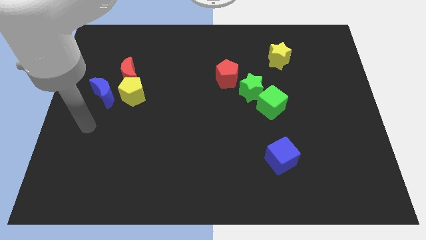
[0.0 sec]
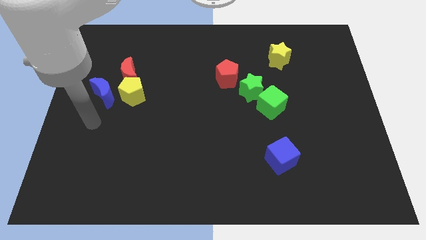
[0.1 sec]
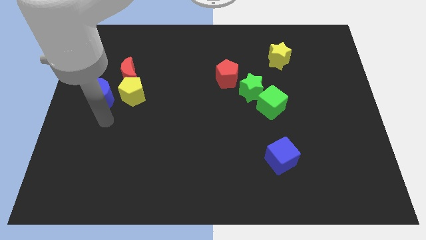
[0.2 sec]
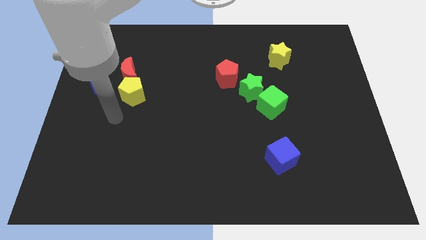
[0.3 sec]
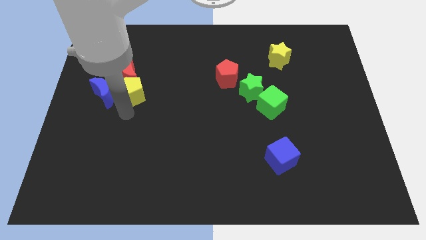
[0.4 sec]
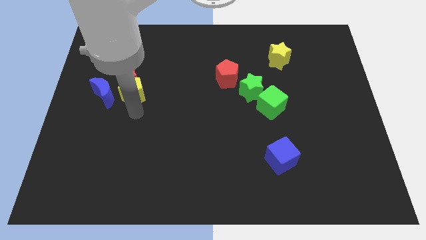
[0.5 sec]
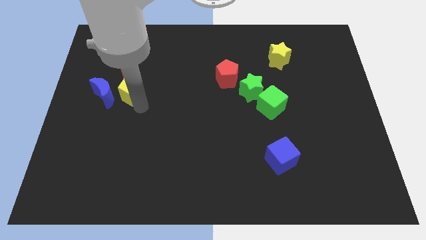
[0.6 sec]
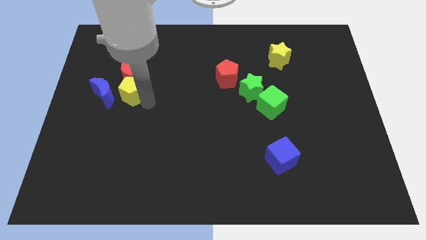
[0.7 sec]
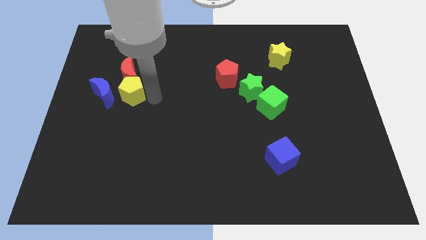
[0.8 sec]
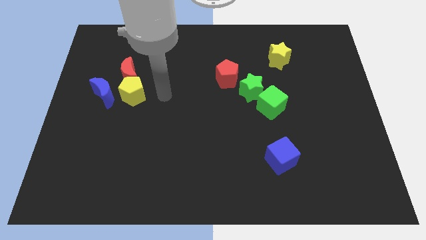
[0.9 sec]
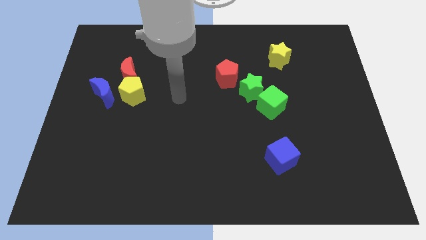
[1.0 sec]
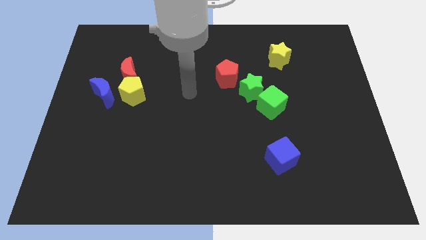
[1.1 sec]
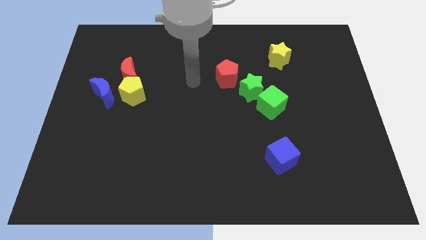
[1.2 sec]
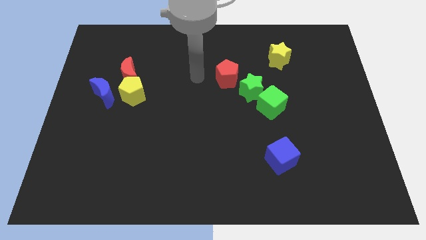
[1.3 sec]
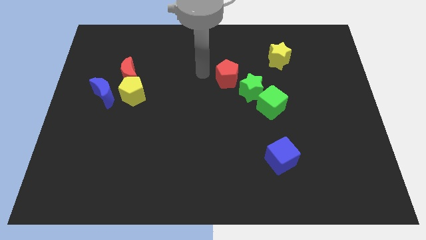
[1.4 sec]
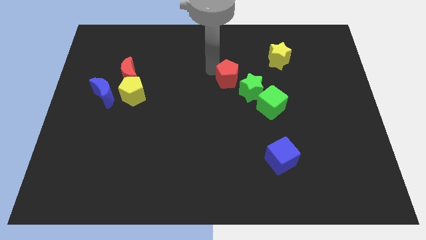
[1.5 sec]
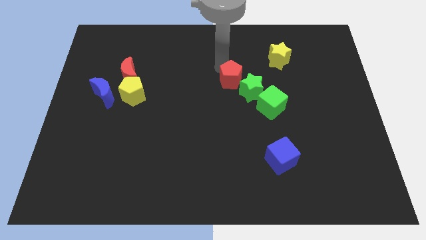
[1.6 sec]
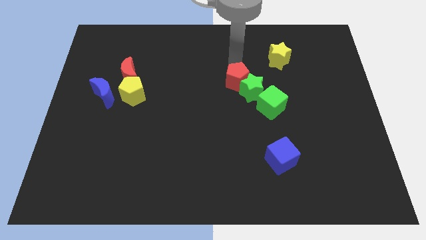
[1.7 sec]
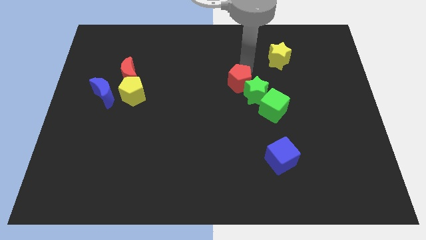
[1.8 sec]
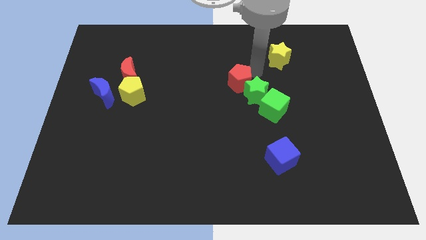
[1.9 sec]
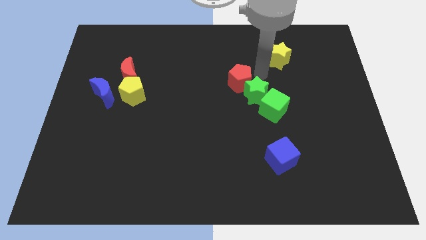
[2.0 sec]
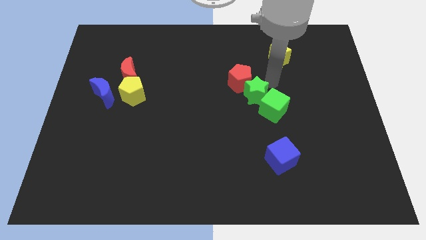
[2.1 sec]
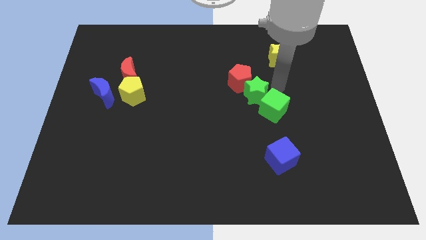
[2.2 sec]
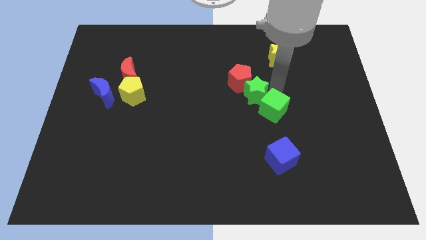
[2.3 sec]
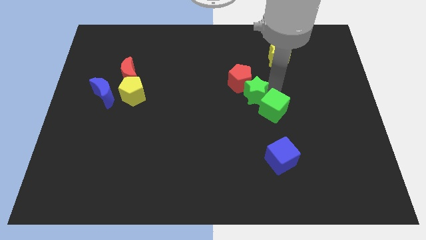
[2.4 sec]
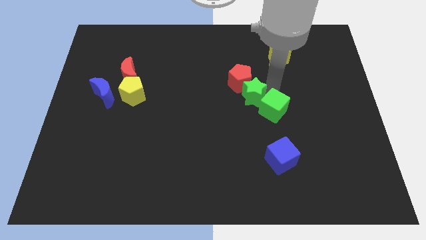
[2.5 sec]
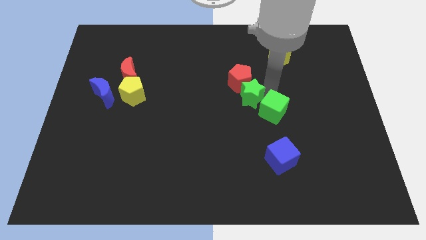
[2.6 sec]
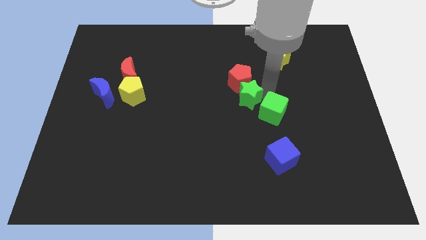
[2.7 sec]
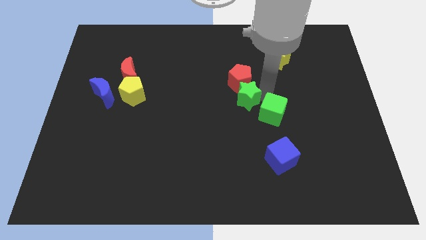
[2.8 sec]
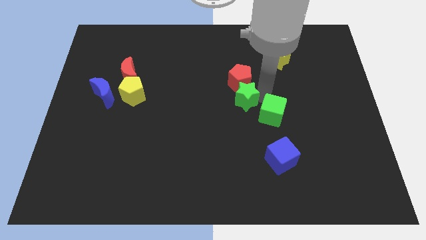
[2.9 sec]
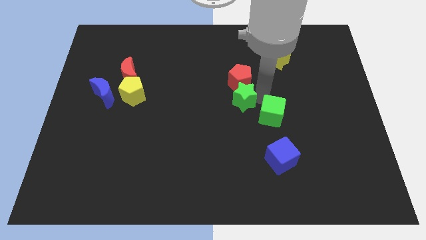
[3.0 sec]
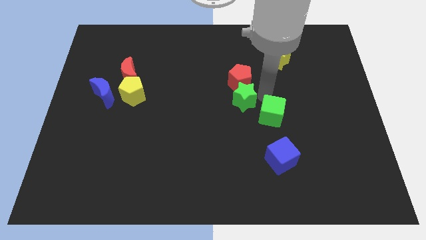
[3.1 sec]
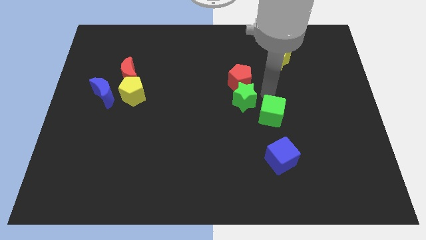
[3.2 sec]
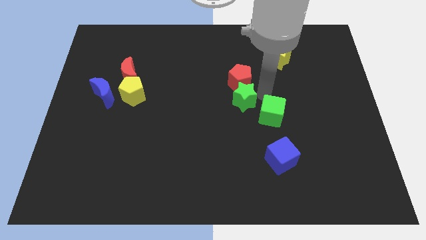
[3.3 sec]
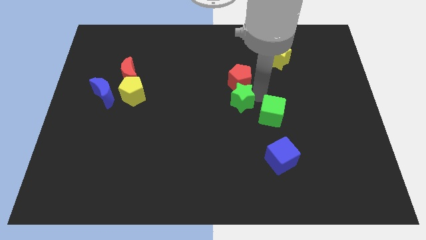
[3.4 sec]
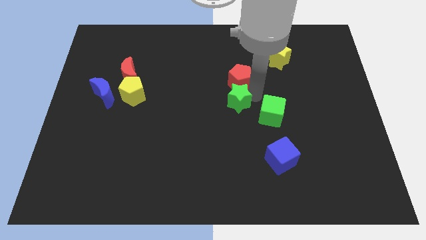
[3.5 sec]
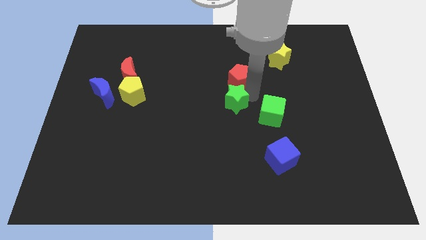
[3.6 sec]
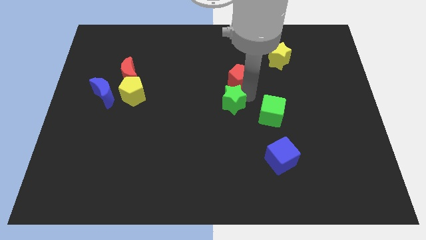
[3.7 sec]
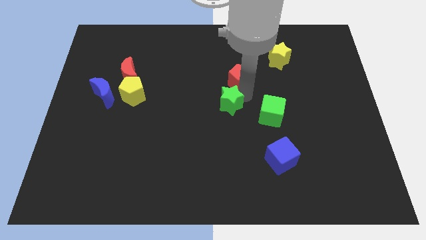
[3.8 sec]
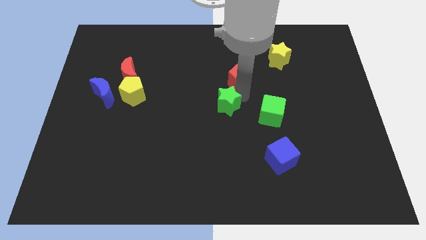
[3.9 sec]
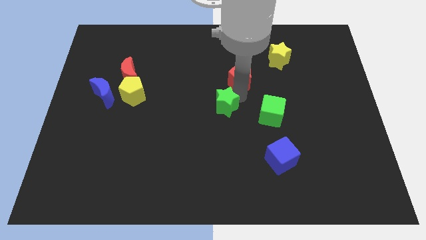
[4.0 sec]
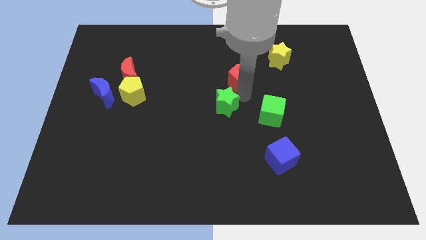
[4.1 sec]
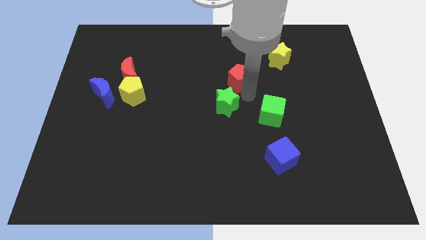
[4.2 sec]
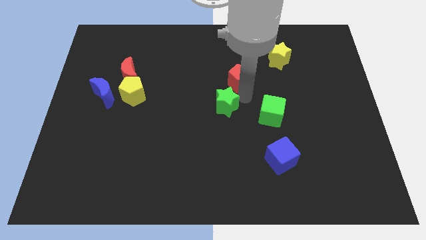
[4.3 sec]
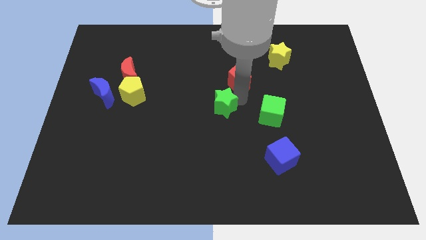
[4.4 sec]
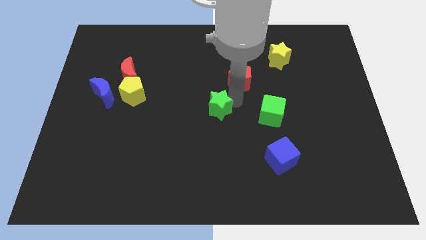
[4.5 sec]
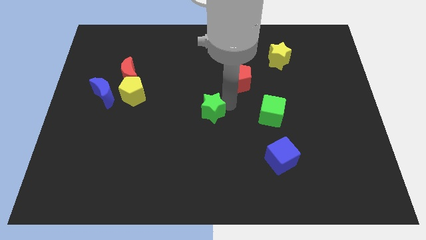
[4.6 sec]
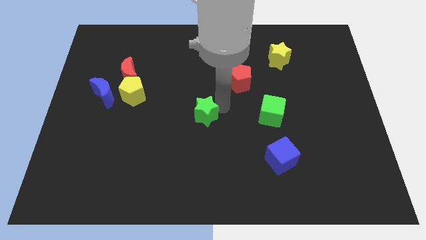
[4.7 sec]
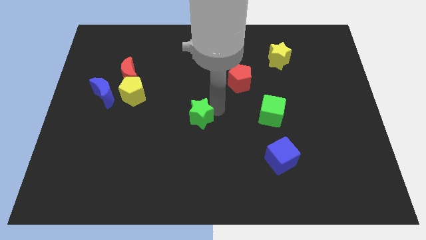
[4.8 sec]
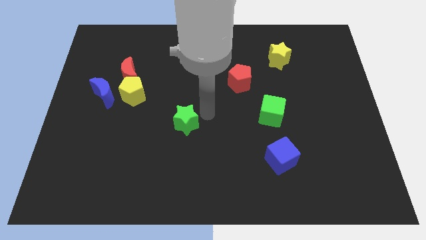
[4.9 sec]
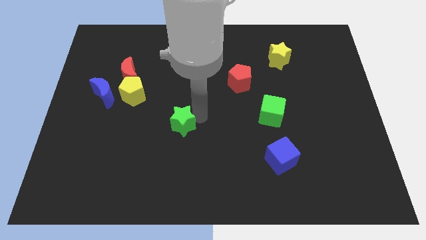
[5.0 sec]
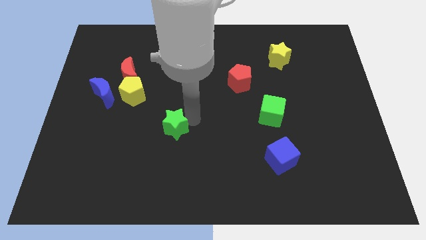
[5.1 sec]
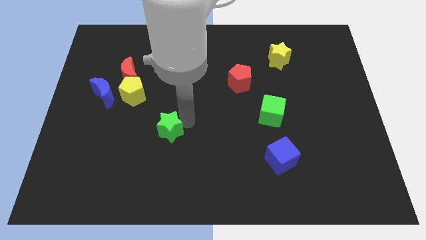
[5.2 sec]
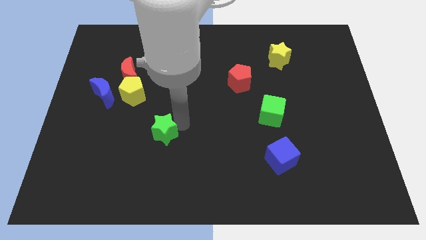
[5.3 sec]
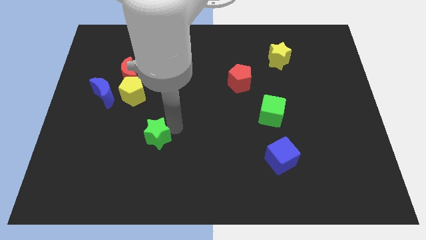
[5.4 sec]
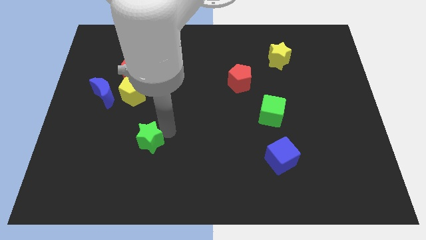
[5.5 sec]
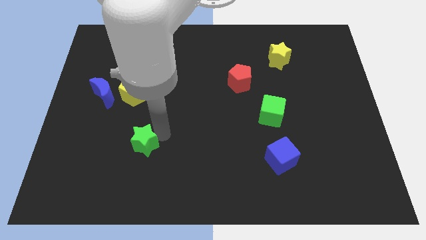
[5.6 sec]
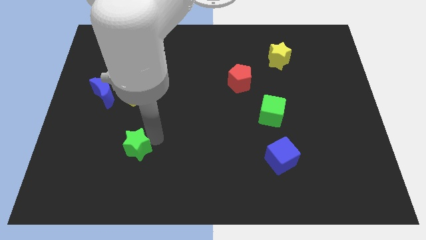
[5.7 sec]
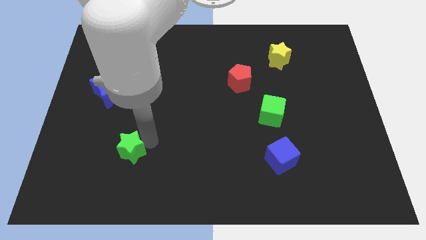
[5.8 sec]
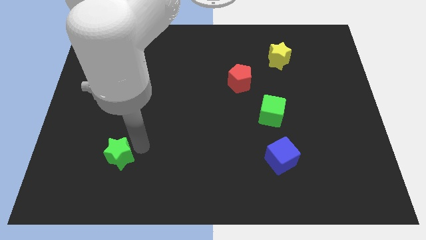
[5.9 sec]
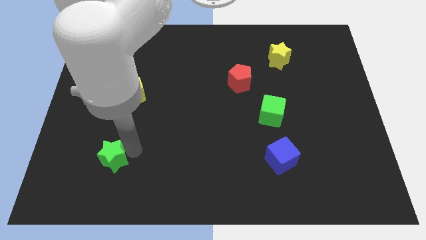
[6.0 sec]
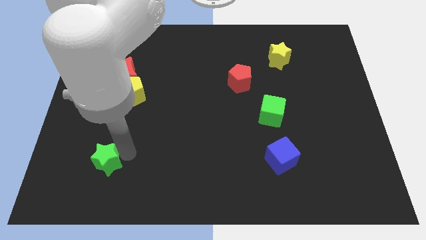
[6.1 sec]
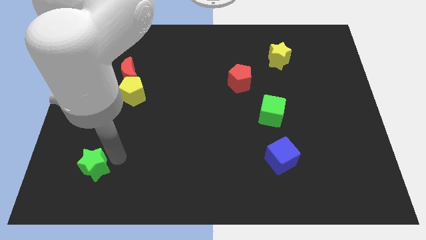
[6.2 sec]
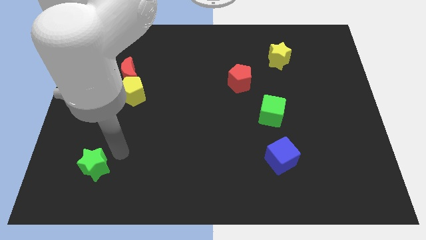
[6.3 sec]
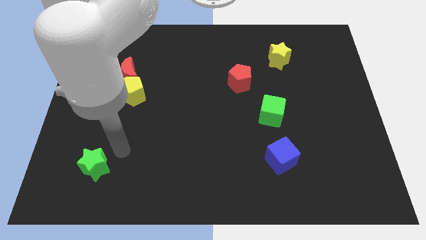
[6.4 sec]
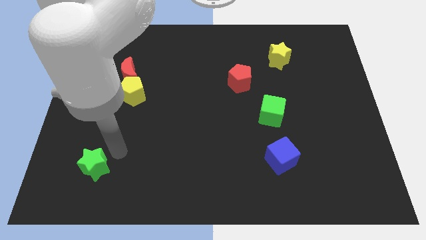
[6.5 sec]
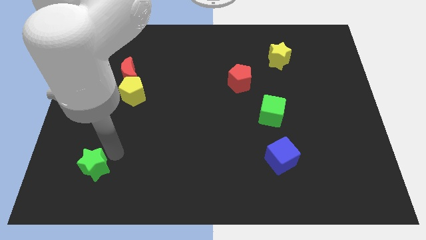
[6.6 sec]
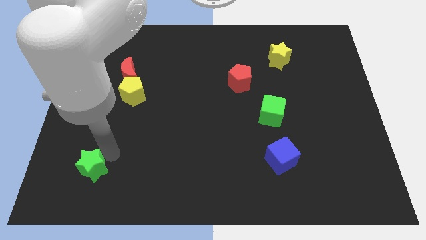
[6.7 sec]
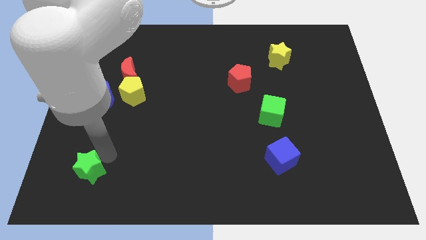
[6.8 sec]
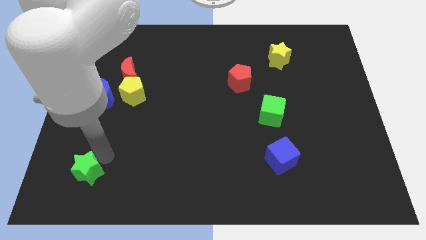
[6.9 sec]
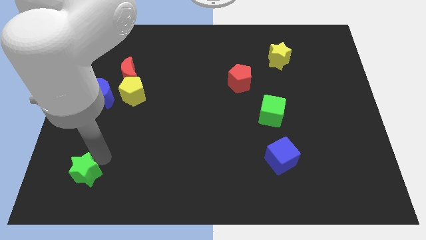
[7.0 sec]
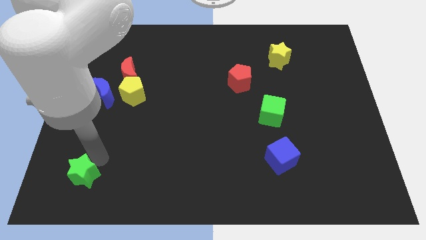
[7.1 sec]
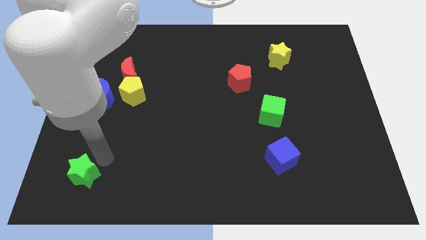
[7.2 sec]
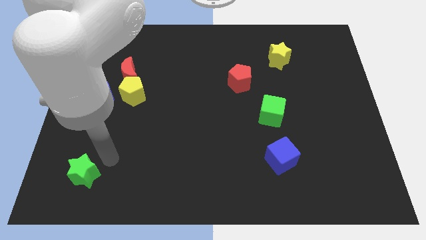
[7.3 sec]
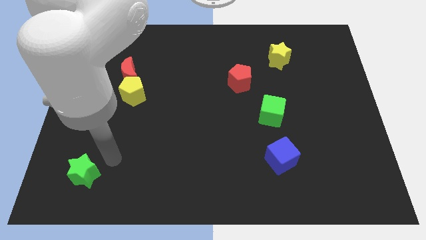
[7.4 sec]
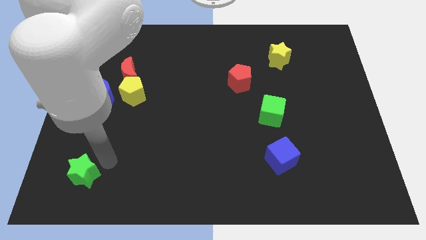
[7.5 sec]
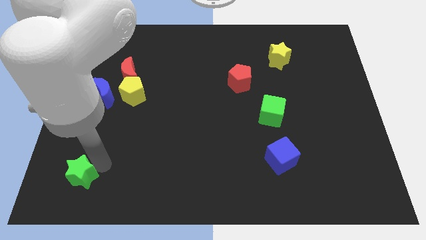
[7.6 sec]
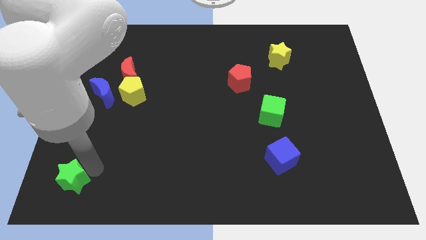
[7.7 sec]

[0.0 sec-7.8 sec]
push the green star to the bottom left of the board
